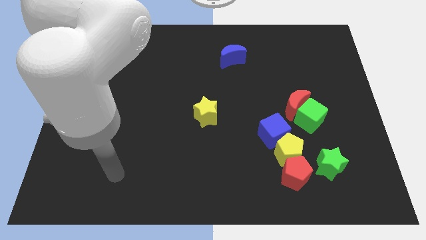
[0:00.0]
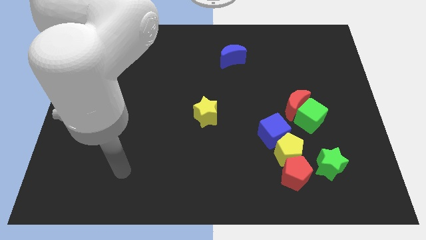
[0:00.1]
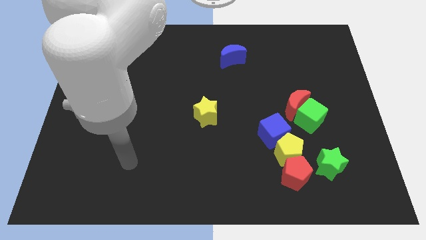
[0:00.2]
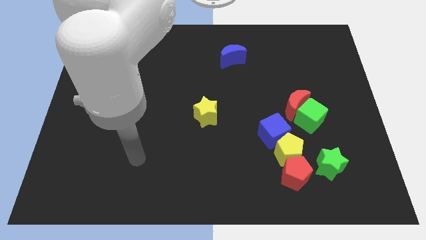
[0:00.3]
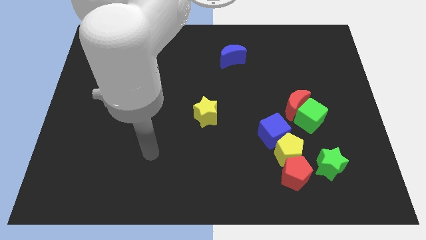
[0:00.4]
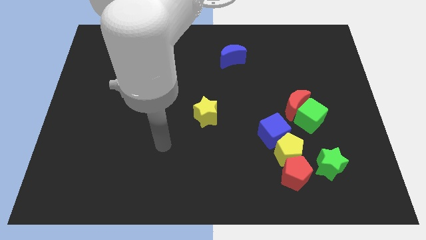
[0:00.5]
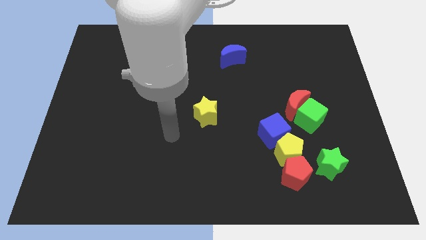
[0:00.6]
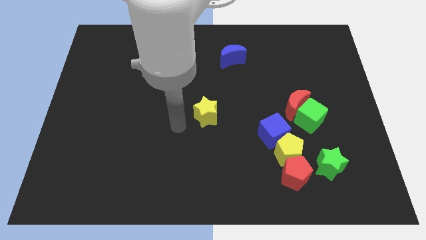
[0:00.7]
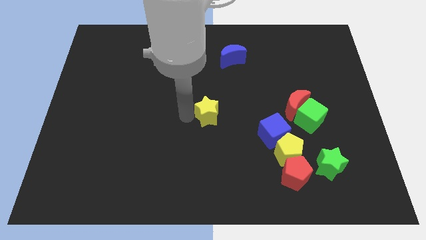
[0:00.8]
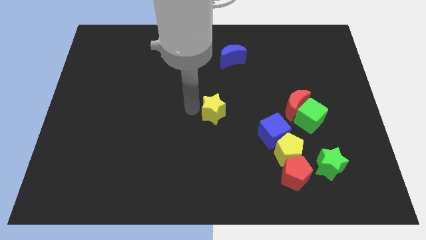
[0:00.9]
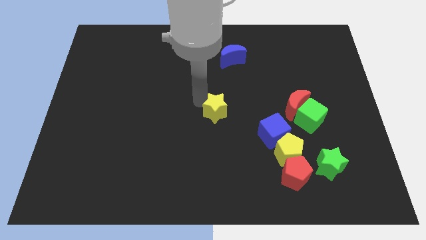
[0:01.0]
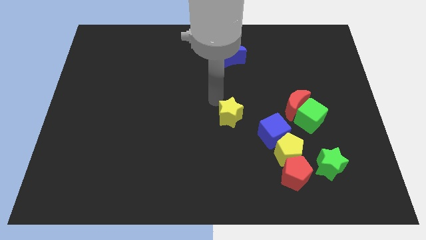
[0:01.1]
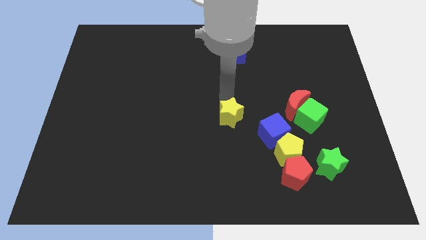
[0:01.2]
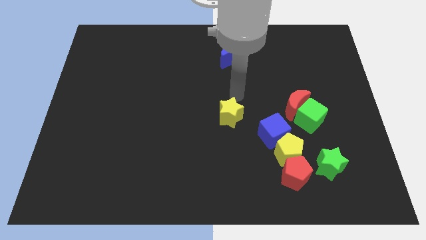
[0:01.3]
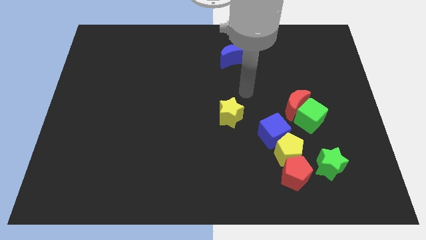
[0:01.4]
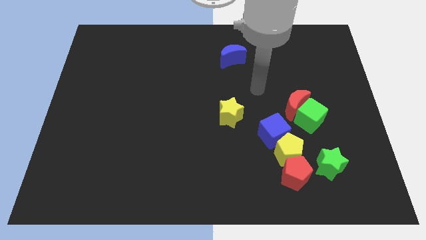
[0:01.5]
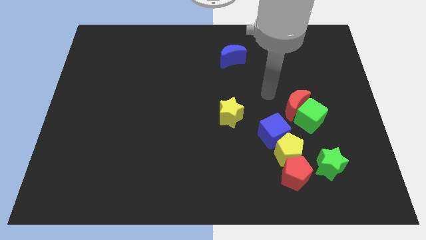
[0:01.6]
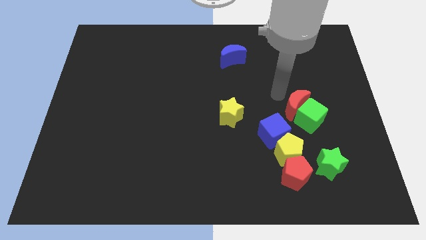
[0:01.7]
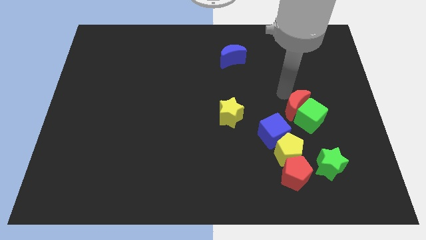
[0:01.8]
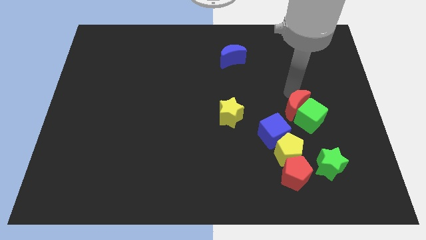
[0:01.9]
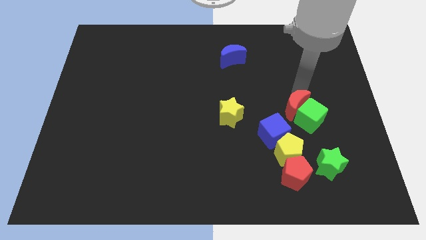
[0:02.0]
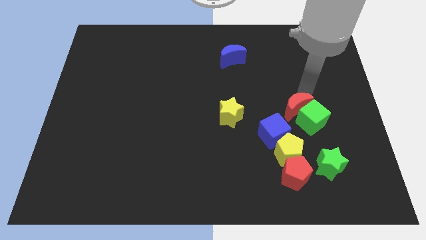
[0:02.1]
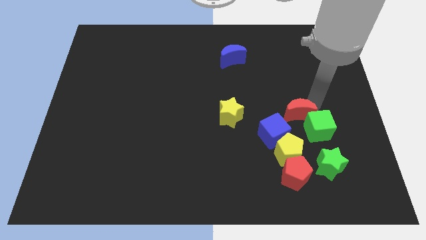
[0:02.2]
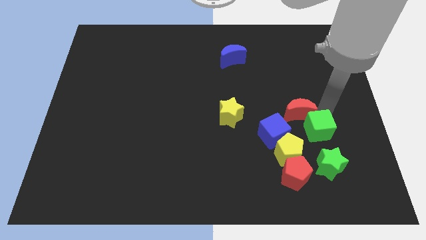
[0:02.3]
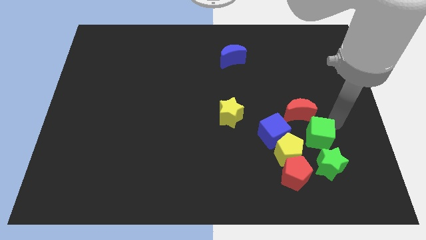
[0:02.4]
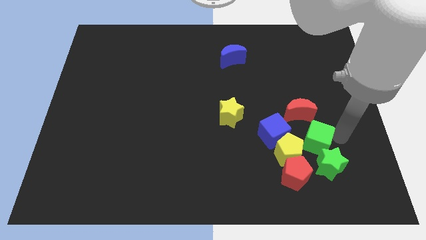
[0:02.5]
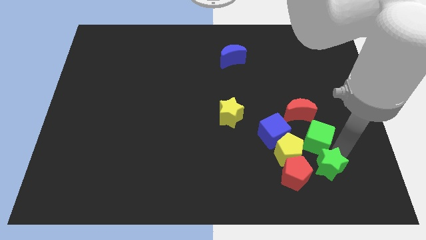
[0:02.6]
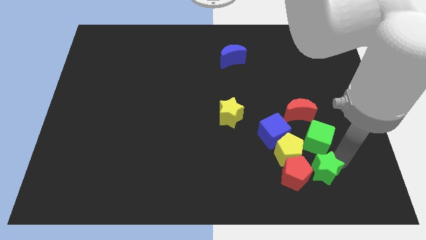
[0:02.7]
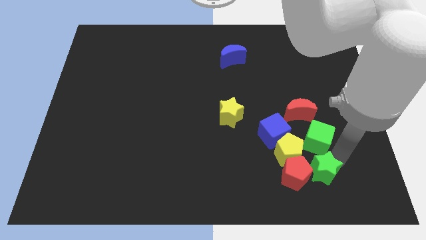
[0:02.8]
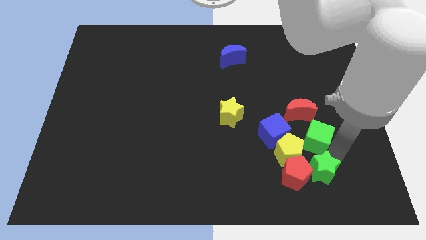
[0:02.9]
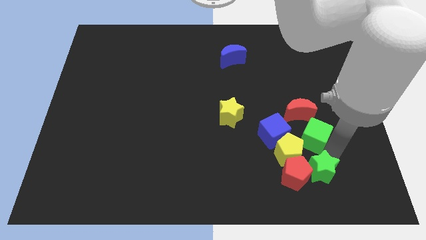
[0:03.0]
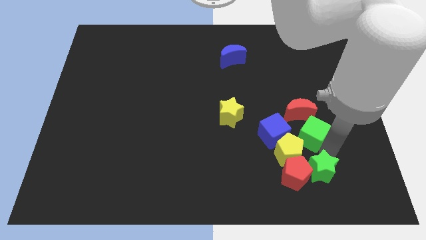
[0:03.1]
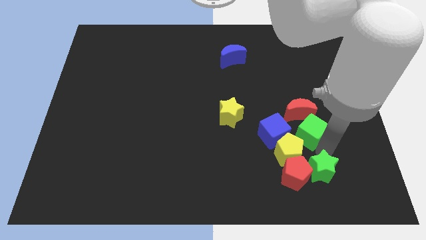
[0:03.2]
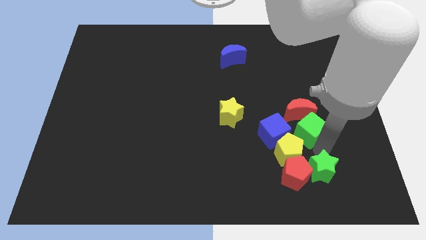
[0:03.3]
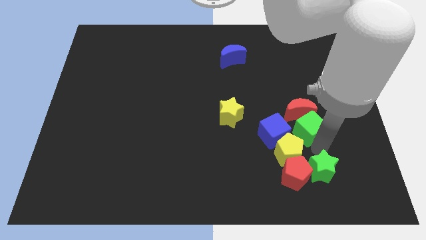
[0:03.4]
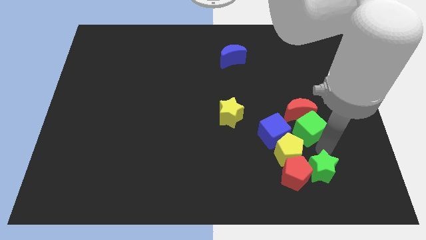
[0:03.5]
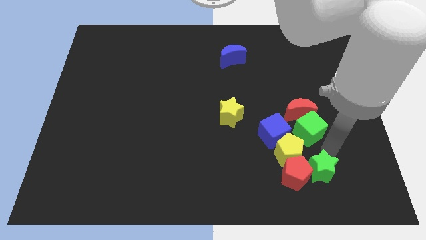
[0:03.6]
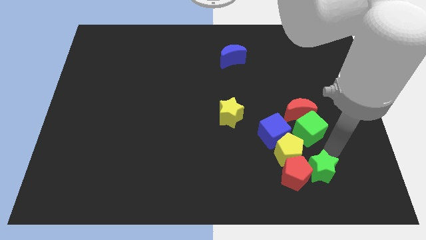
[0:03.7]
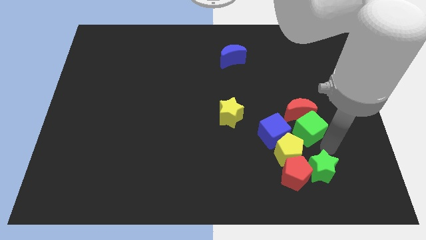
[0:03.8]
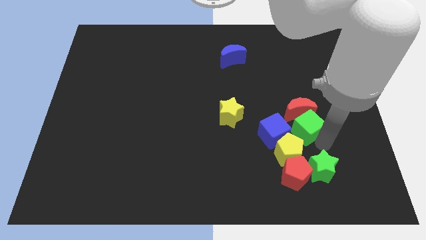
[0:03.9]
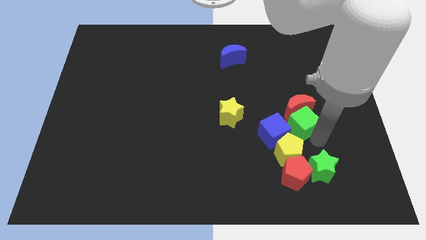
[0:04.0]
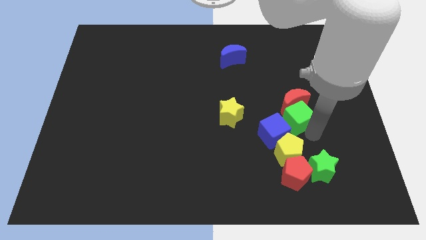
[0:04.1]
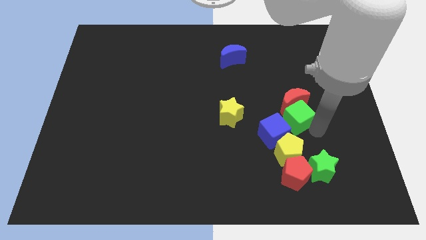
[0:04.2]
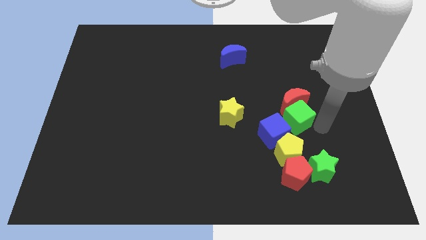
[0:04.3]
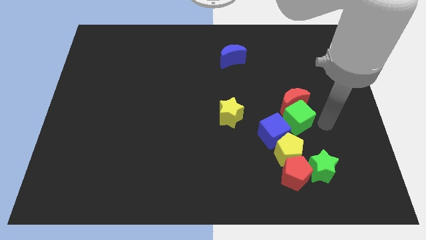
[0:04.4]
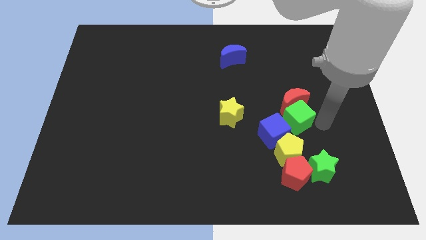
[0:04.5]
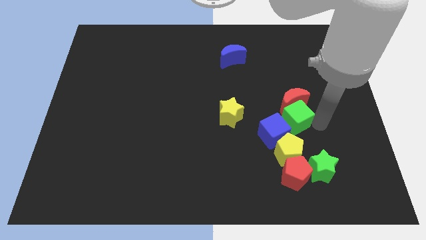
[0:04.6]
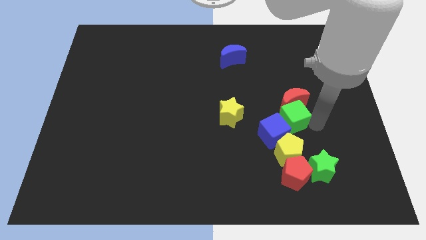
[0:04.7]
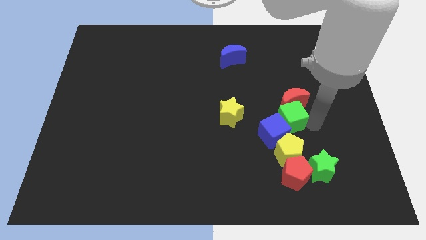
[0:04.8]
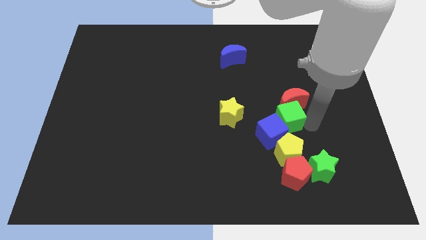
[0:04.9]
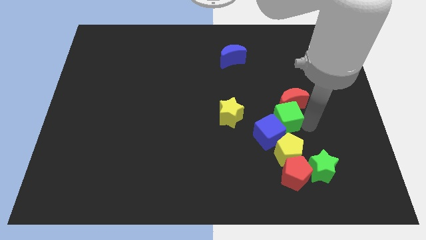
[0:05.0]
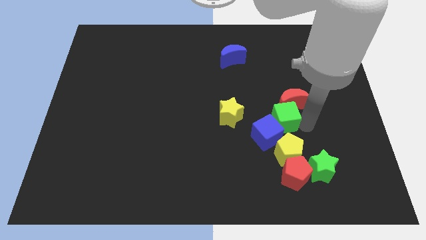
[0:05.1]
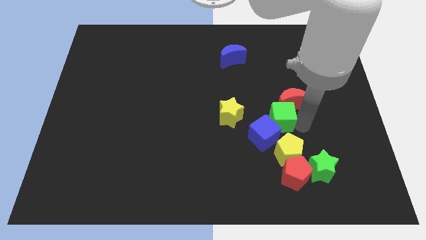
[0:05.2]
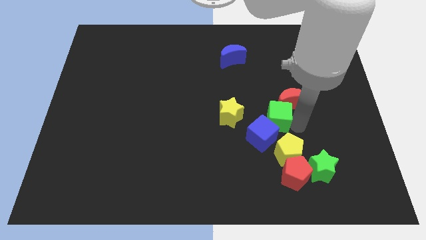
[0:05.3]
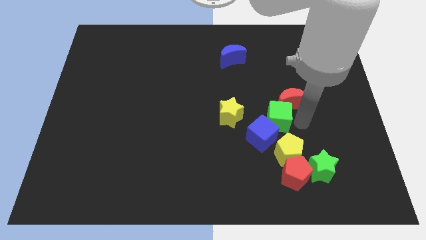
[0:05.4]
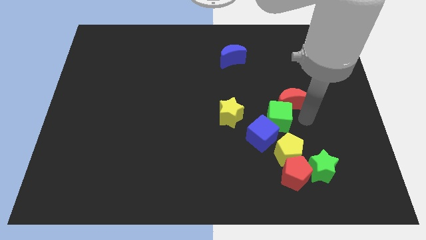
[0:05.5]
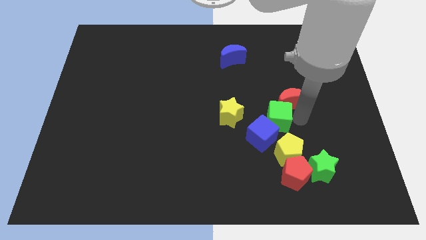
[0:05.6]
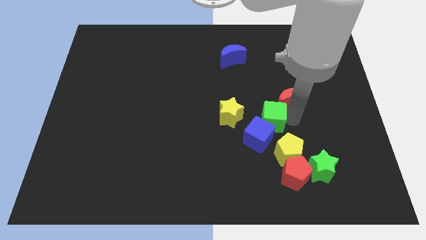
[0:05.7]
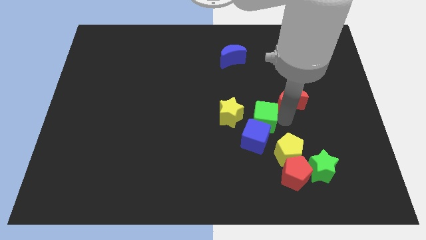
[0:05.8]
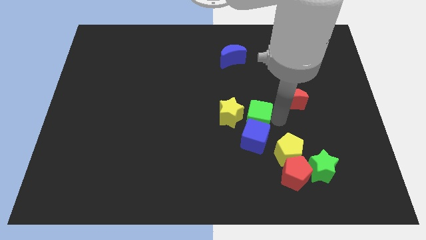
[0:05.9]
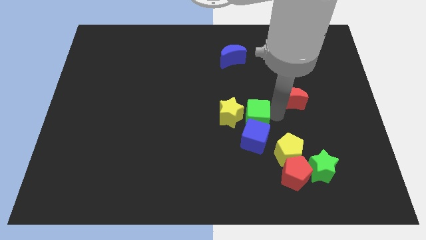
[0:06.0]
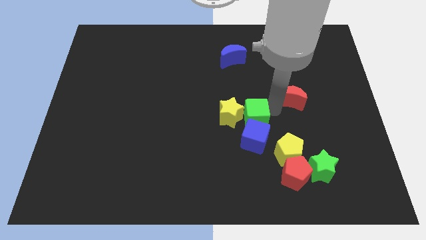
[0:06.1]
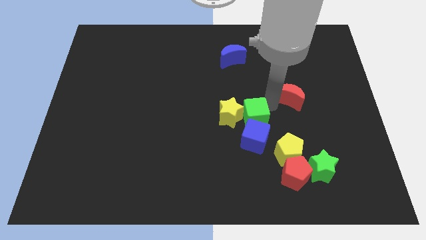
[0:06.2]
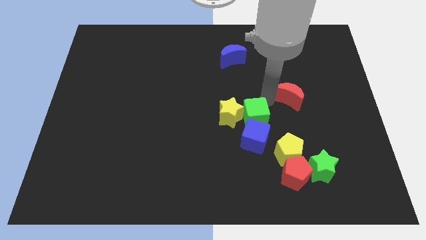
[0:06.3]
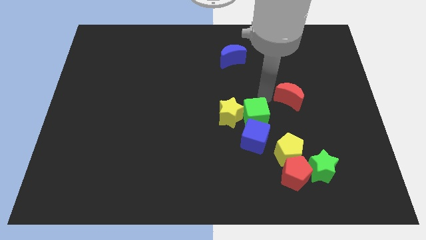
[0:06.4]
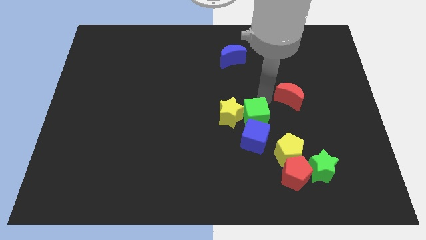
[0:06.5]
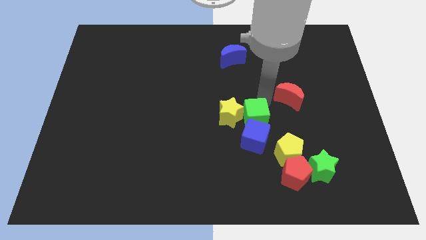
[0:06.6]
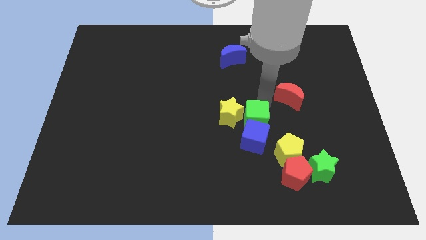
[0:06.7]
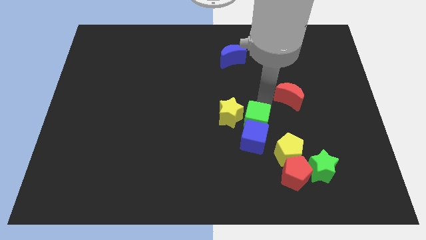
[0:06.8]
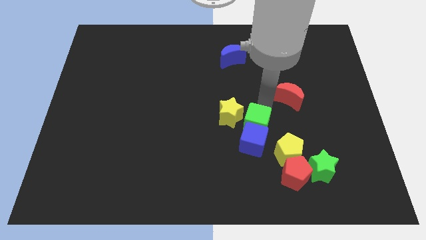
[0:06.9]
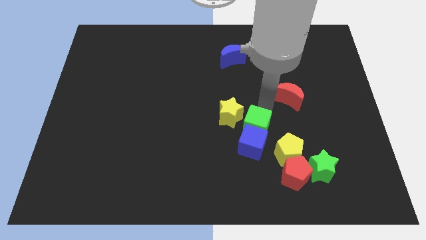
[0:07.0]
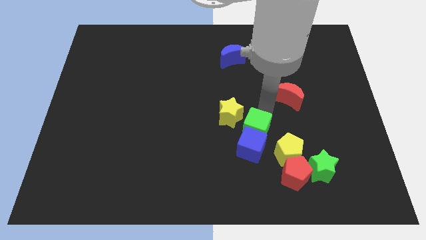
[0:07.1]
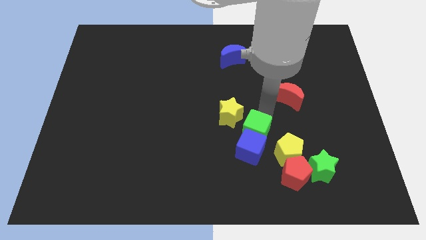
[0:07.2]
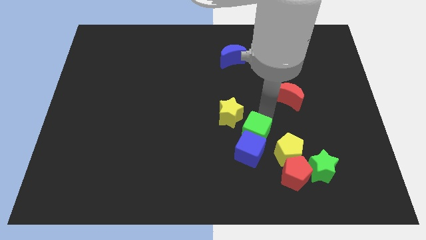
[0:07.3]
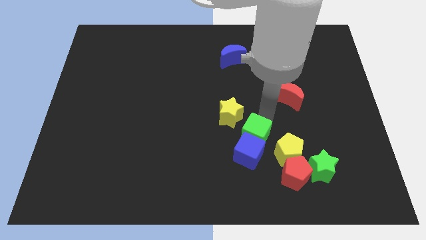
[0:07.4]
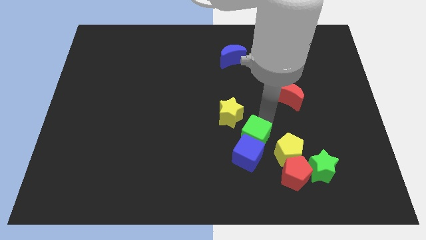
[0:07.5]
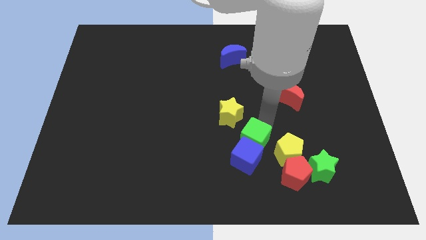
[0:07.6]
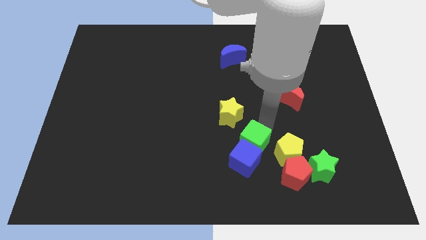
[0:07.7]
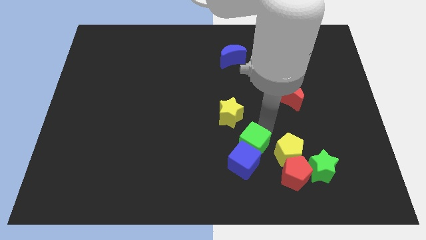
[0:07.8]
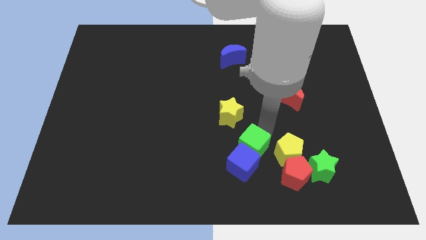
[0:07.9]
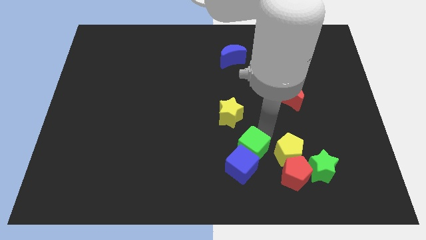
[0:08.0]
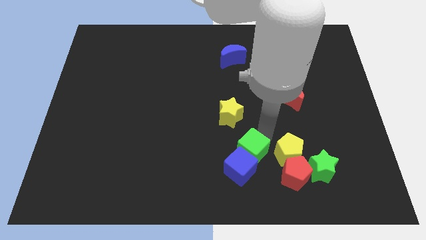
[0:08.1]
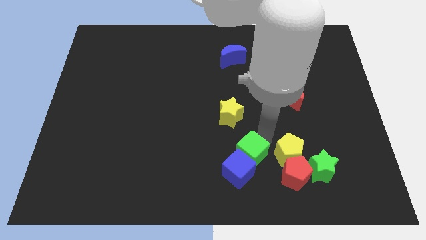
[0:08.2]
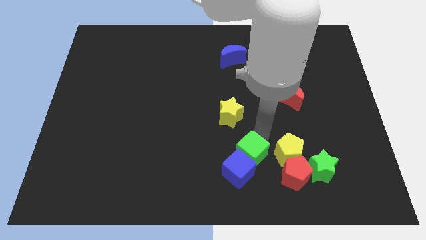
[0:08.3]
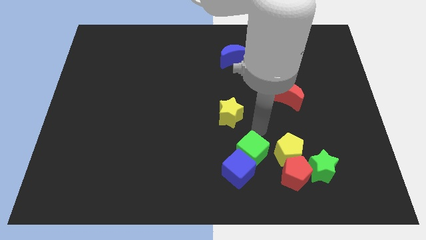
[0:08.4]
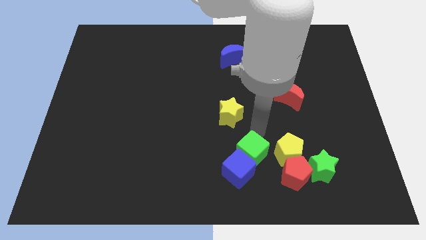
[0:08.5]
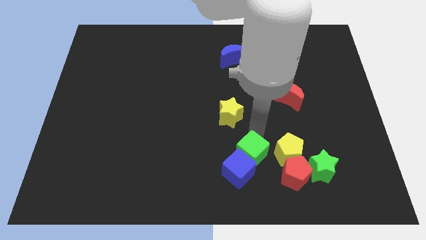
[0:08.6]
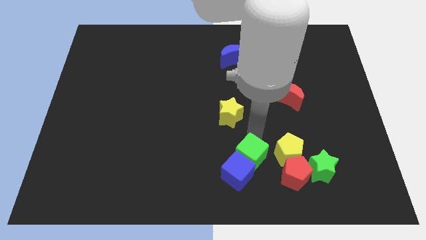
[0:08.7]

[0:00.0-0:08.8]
move the green cube to the left of the red pentagon
